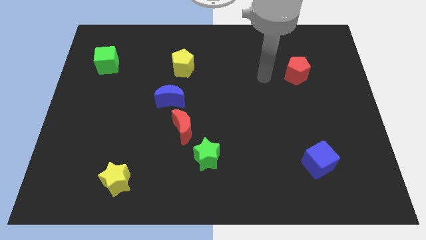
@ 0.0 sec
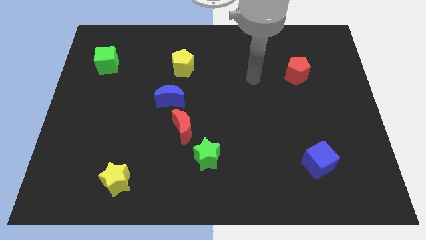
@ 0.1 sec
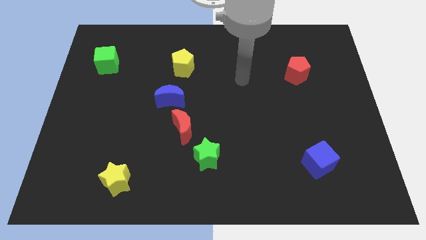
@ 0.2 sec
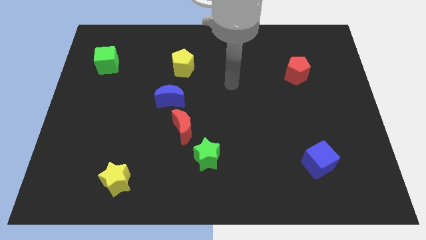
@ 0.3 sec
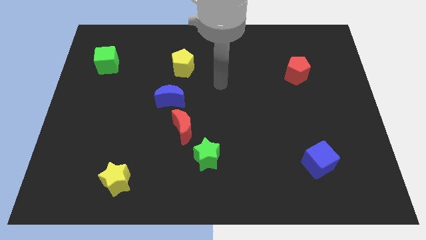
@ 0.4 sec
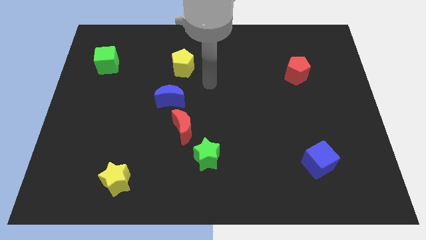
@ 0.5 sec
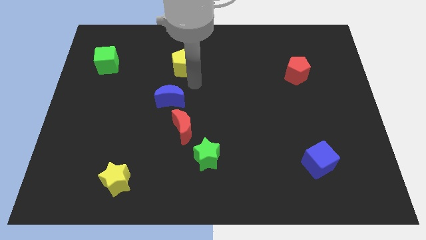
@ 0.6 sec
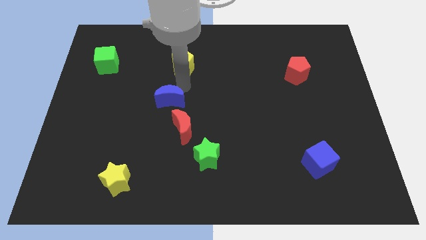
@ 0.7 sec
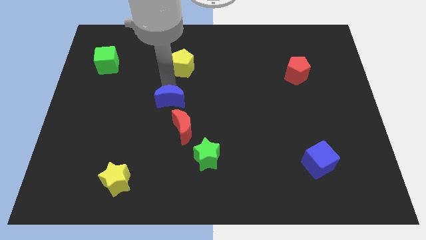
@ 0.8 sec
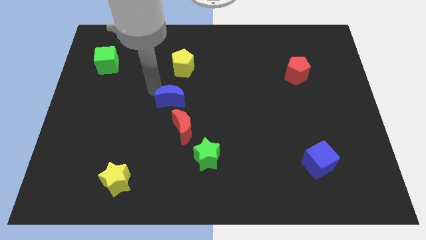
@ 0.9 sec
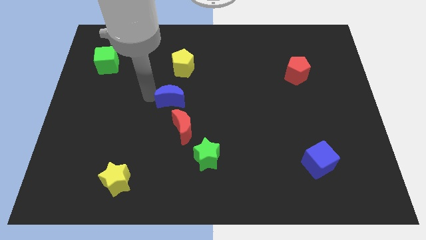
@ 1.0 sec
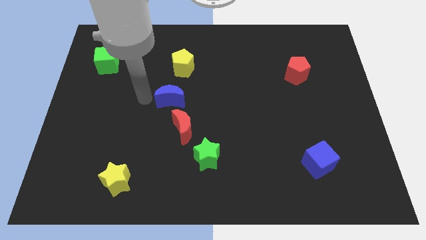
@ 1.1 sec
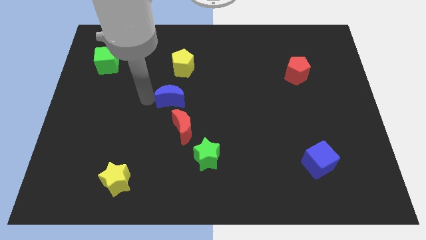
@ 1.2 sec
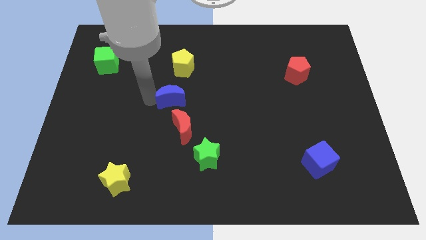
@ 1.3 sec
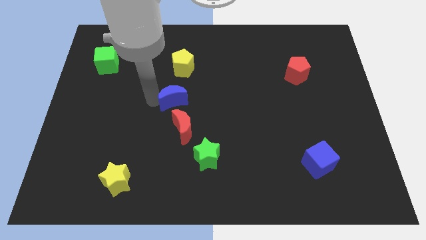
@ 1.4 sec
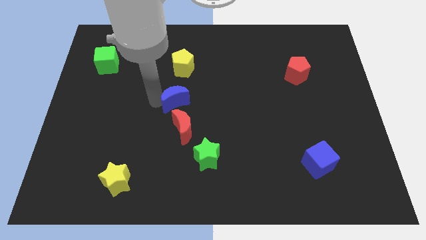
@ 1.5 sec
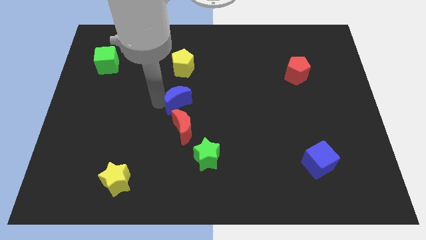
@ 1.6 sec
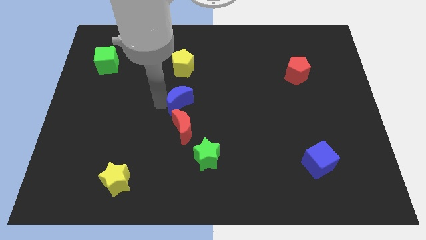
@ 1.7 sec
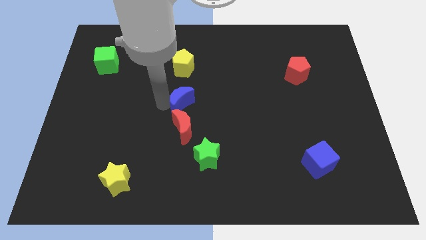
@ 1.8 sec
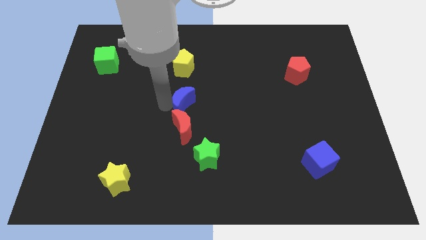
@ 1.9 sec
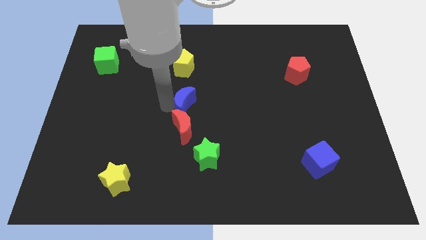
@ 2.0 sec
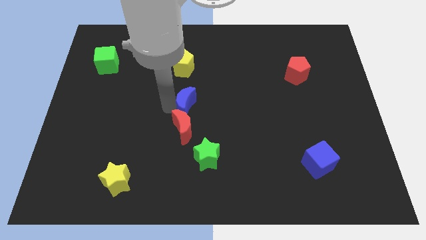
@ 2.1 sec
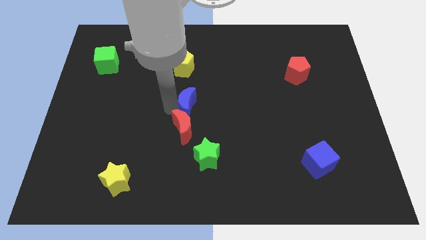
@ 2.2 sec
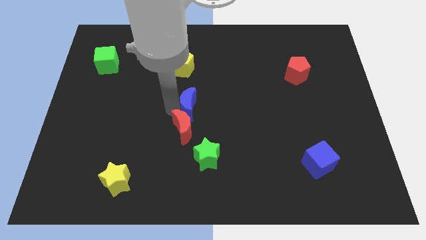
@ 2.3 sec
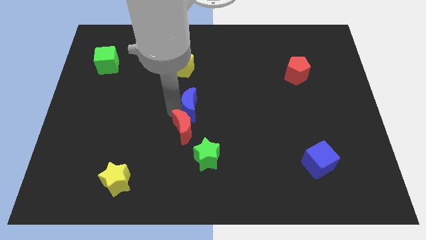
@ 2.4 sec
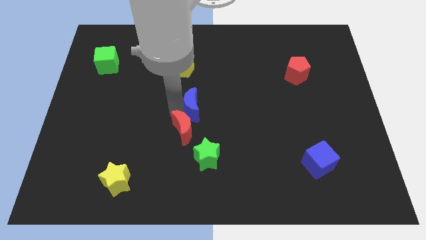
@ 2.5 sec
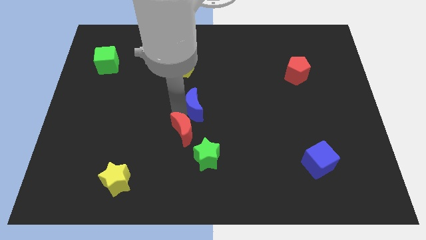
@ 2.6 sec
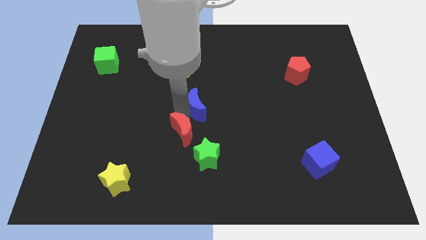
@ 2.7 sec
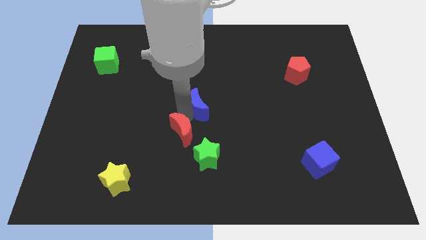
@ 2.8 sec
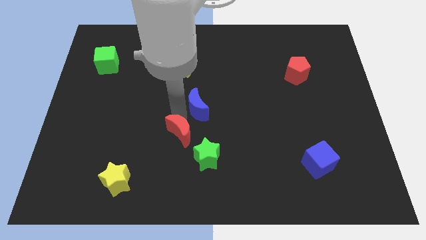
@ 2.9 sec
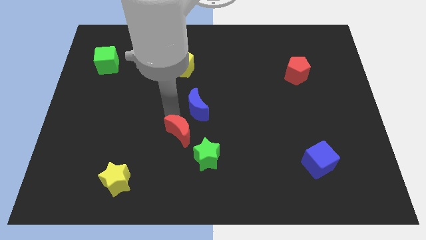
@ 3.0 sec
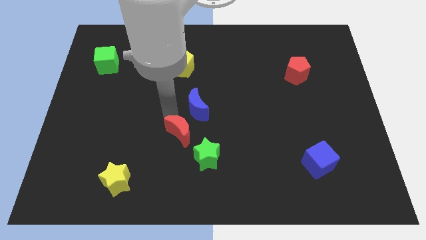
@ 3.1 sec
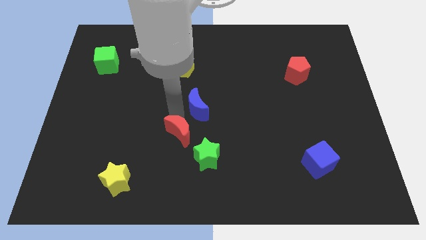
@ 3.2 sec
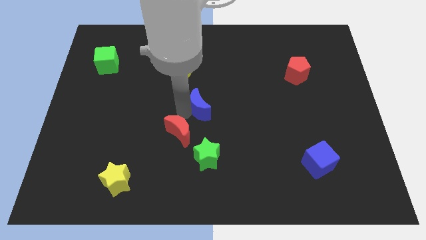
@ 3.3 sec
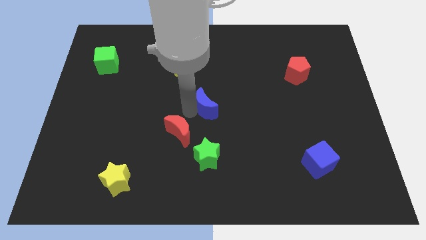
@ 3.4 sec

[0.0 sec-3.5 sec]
push the blue moon a little bit right

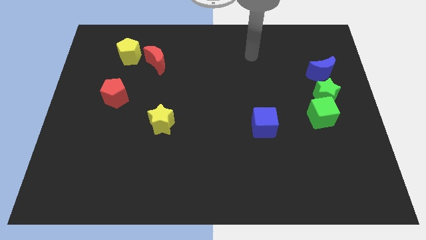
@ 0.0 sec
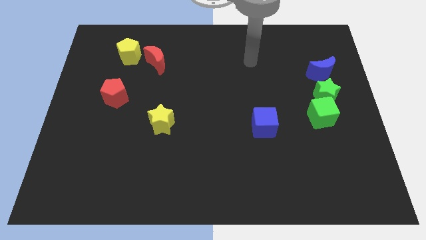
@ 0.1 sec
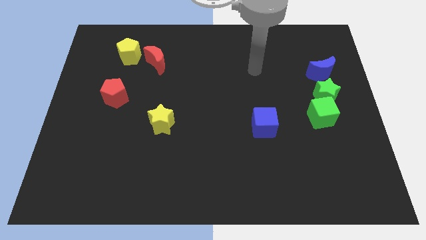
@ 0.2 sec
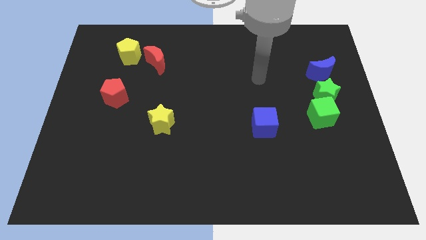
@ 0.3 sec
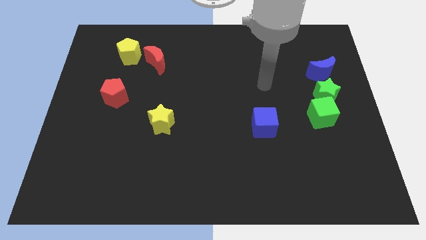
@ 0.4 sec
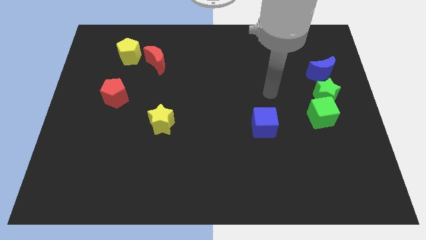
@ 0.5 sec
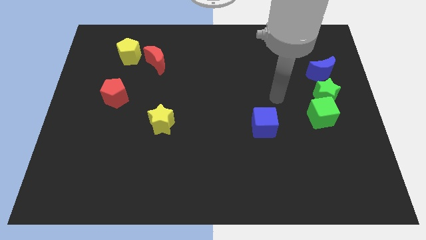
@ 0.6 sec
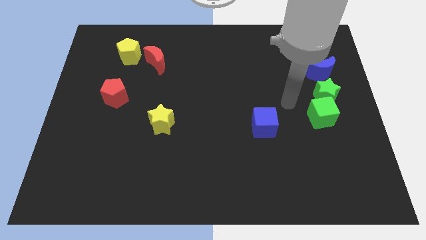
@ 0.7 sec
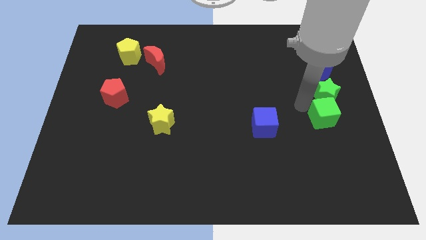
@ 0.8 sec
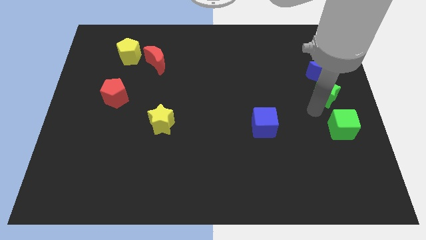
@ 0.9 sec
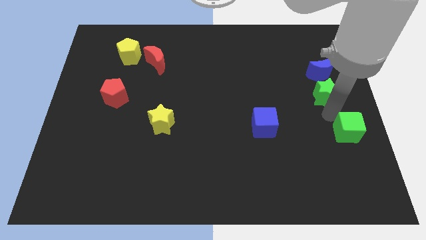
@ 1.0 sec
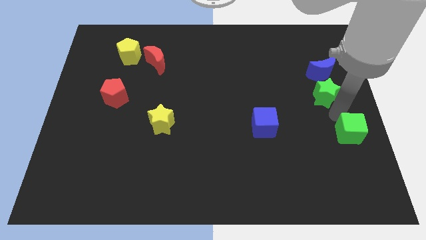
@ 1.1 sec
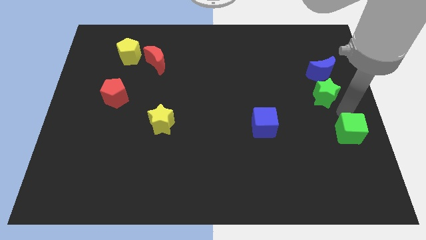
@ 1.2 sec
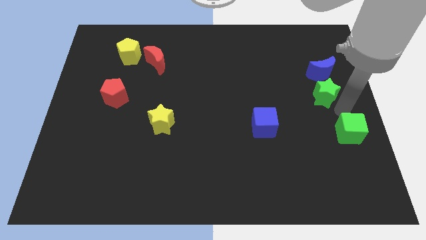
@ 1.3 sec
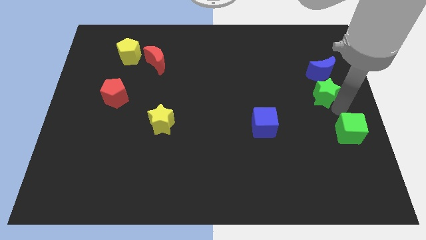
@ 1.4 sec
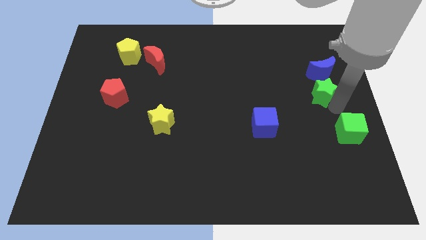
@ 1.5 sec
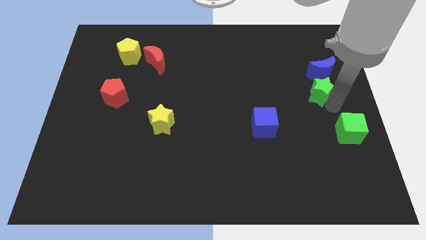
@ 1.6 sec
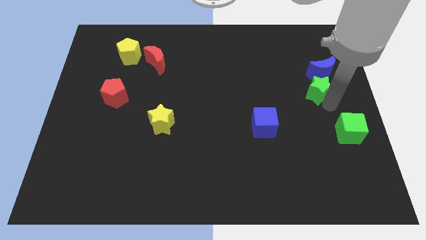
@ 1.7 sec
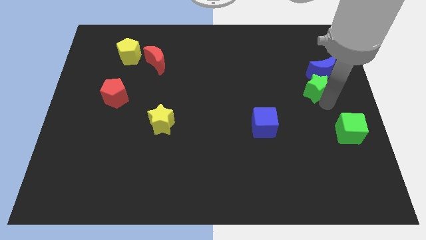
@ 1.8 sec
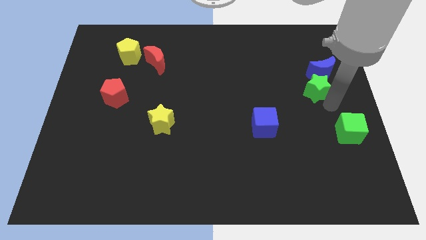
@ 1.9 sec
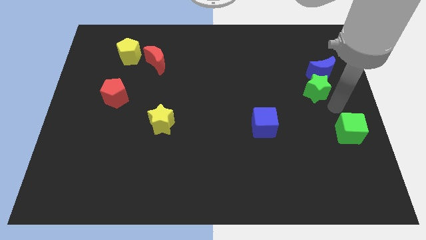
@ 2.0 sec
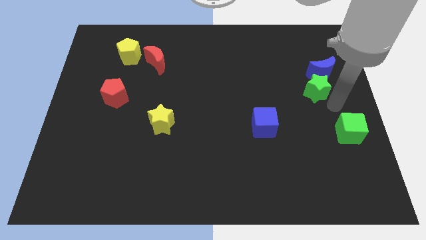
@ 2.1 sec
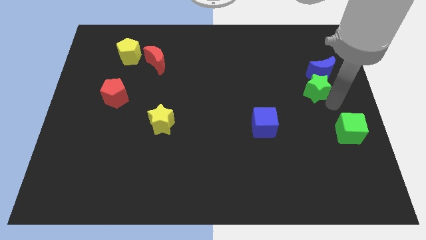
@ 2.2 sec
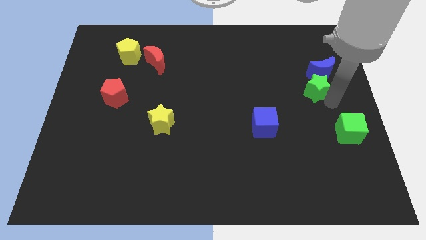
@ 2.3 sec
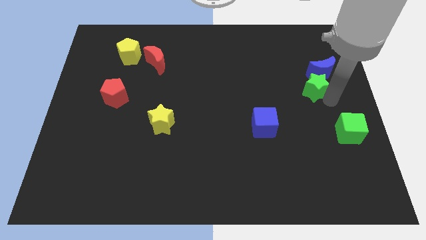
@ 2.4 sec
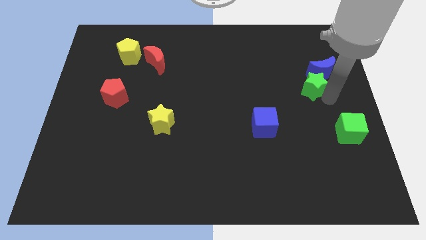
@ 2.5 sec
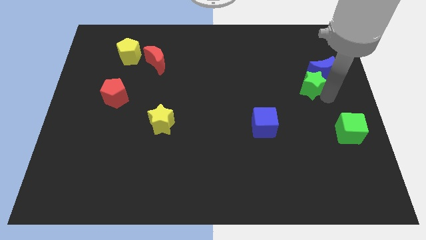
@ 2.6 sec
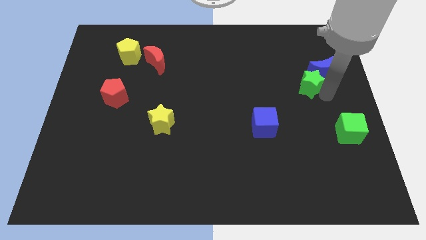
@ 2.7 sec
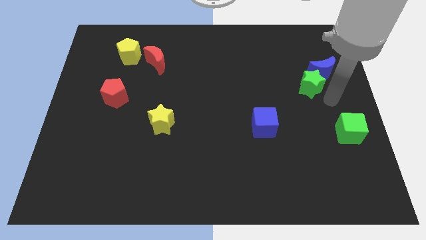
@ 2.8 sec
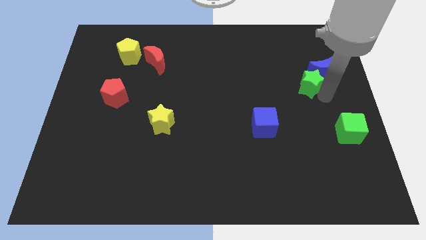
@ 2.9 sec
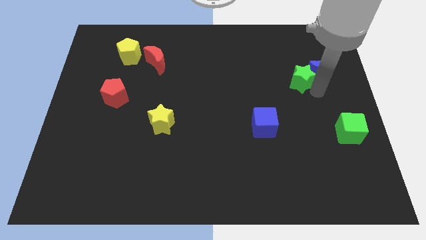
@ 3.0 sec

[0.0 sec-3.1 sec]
move the green star up and left diagonally somewhat

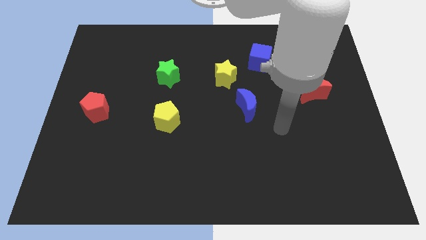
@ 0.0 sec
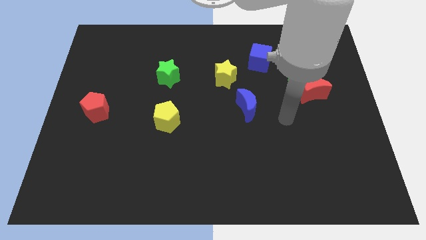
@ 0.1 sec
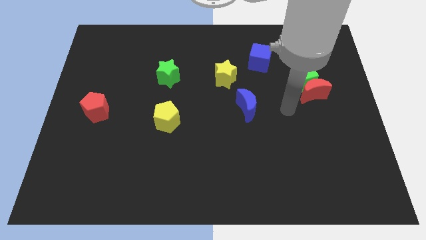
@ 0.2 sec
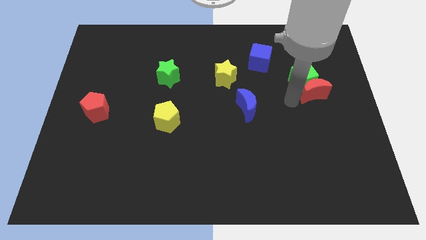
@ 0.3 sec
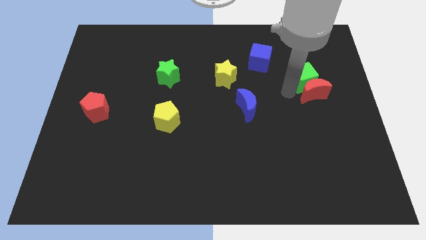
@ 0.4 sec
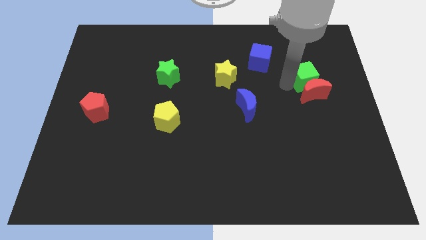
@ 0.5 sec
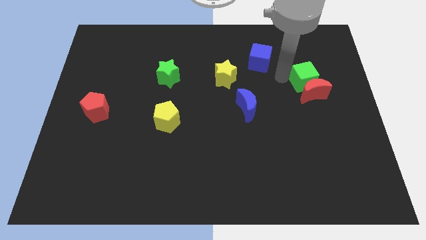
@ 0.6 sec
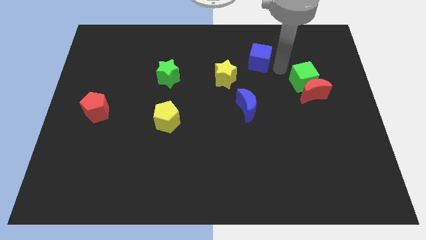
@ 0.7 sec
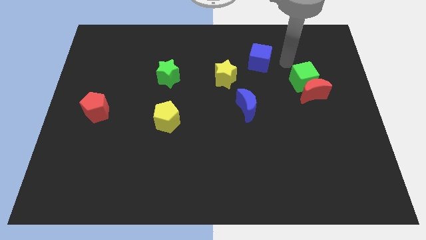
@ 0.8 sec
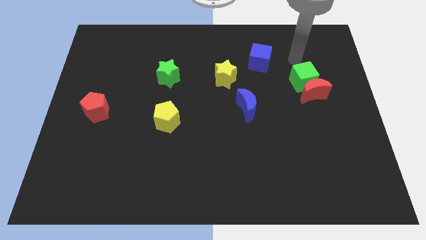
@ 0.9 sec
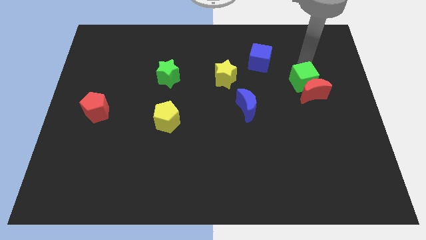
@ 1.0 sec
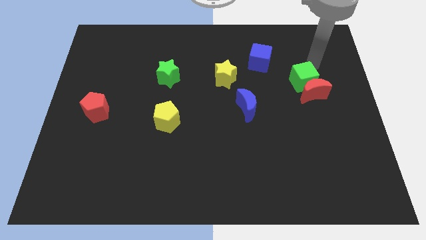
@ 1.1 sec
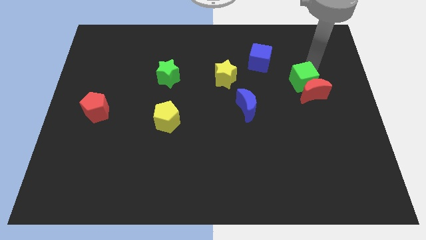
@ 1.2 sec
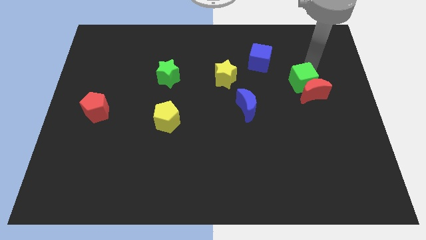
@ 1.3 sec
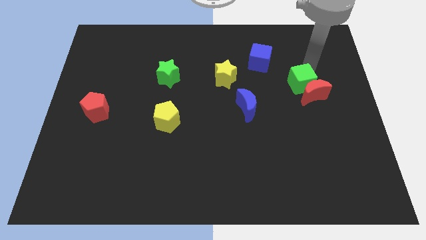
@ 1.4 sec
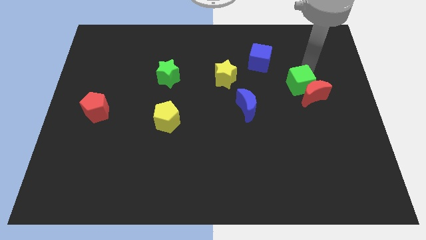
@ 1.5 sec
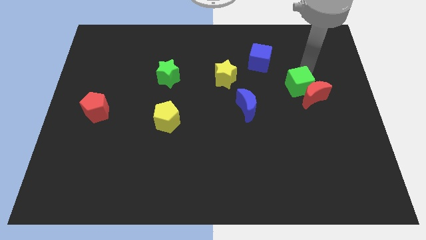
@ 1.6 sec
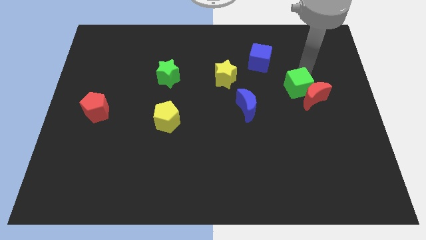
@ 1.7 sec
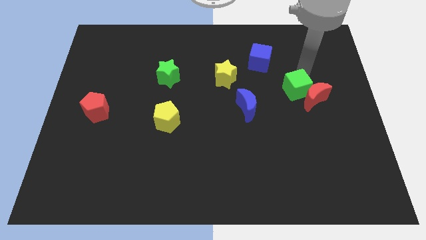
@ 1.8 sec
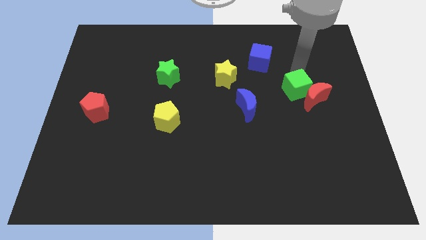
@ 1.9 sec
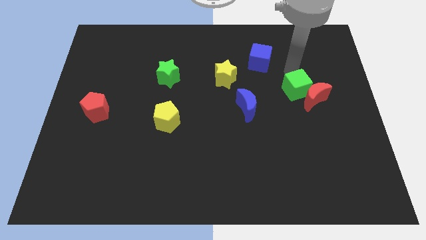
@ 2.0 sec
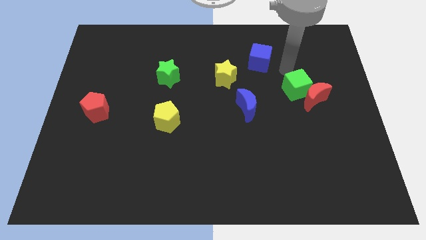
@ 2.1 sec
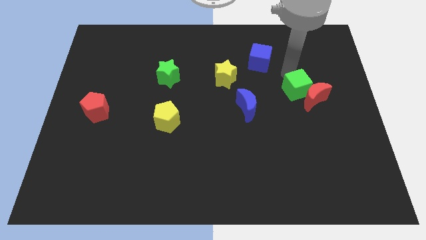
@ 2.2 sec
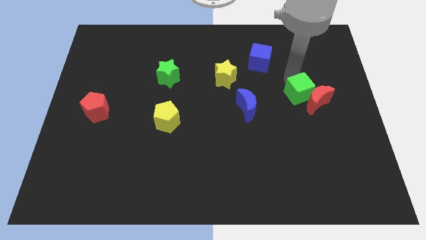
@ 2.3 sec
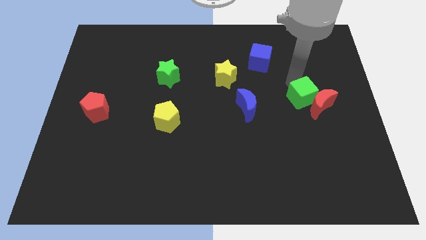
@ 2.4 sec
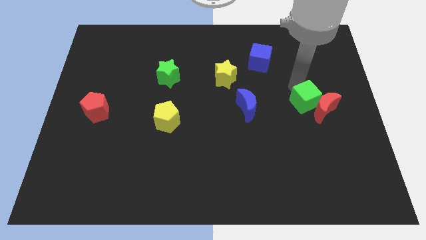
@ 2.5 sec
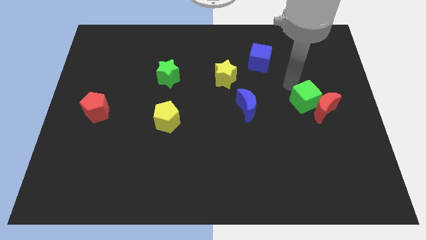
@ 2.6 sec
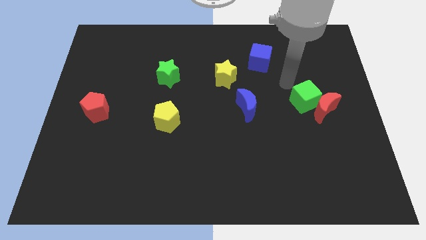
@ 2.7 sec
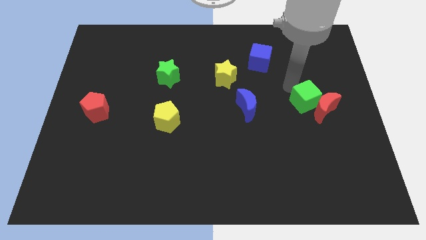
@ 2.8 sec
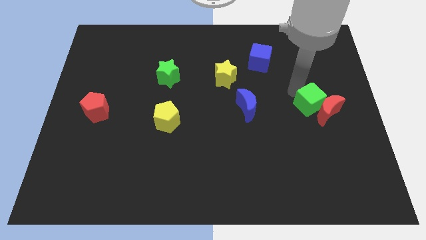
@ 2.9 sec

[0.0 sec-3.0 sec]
slightly slide the green cube down
